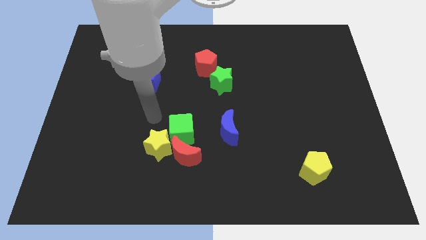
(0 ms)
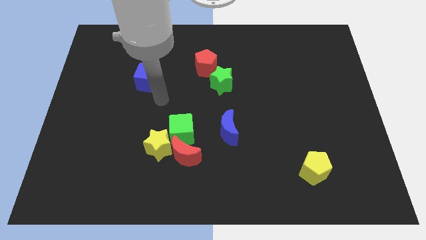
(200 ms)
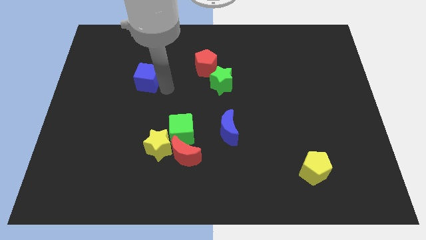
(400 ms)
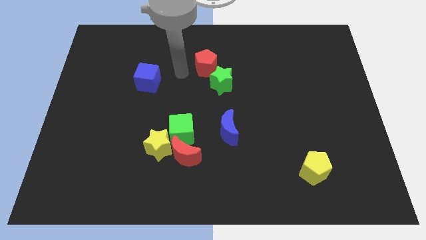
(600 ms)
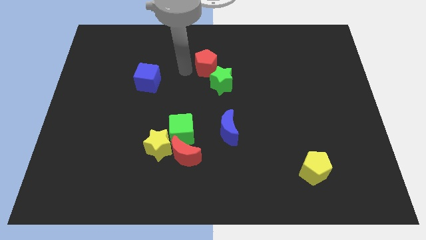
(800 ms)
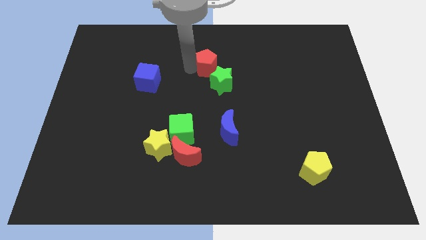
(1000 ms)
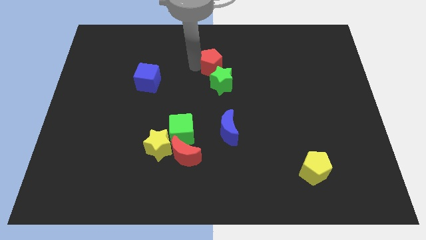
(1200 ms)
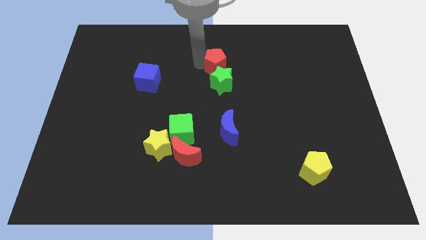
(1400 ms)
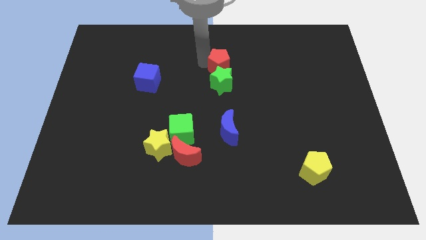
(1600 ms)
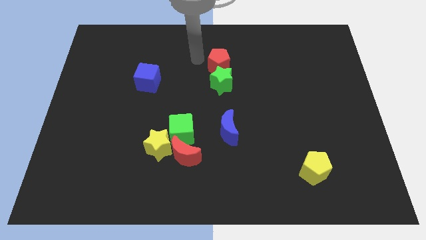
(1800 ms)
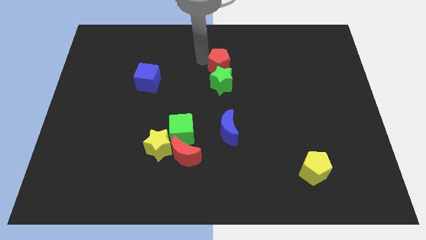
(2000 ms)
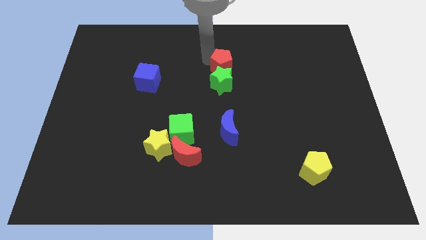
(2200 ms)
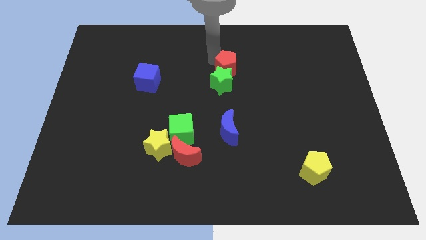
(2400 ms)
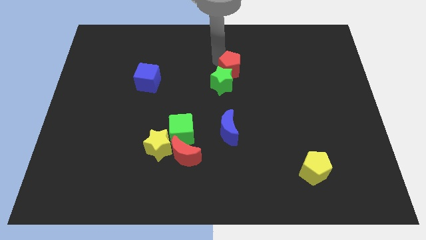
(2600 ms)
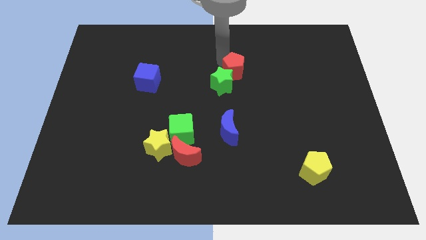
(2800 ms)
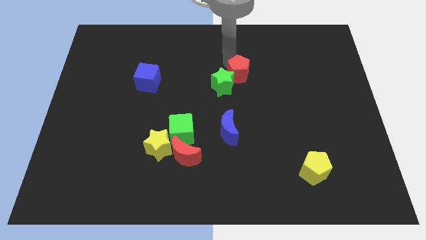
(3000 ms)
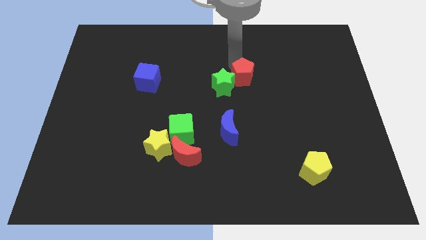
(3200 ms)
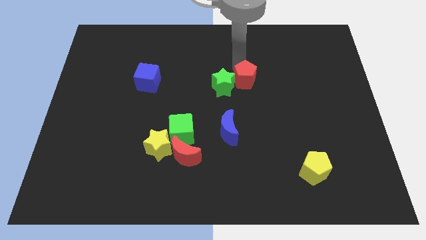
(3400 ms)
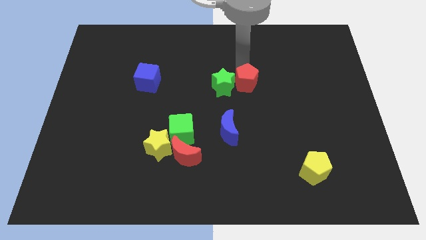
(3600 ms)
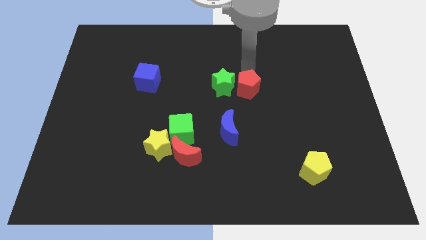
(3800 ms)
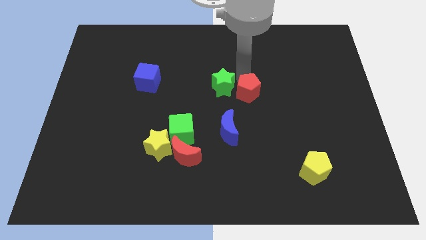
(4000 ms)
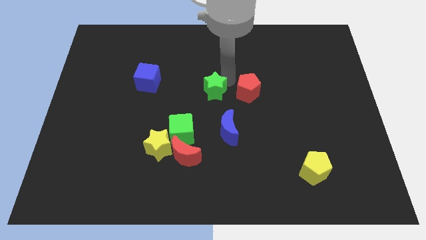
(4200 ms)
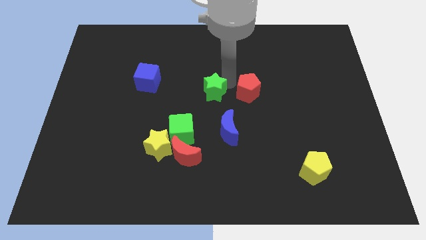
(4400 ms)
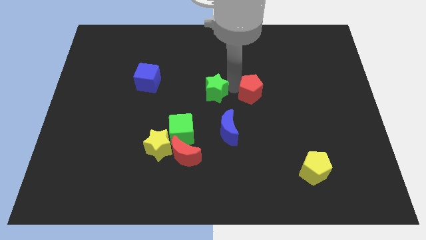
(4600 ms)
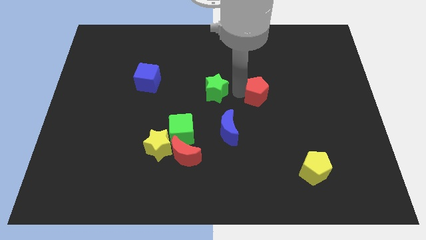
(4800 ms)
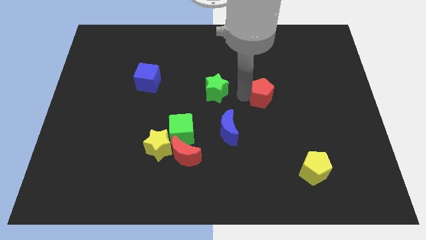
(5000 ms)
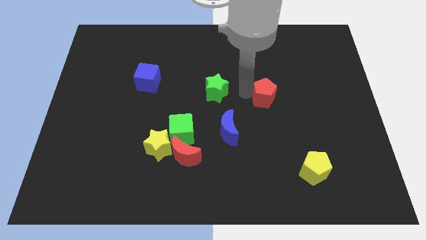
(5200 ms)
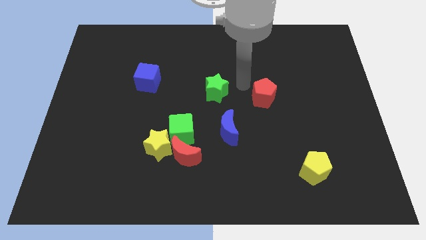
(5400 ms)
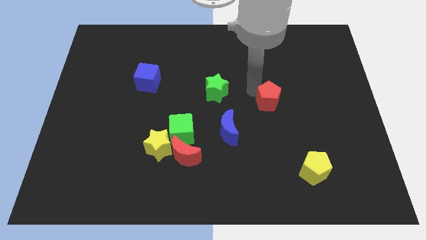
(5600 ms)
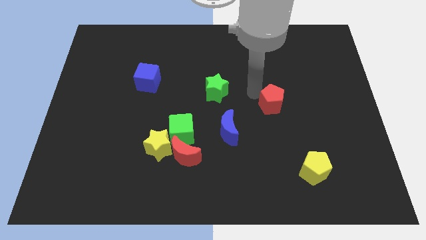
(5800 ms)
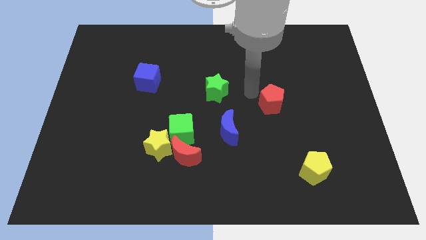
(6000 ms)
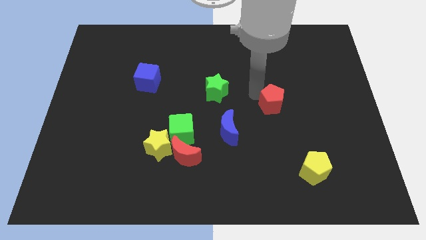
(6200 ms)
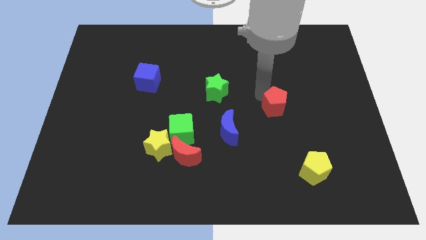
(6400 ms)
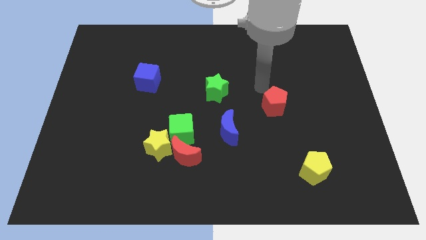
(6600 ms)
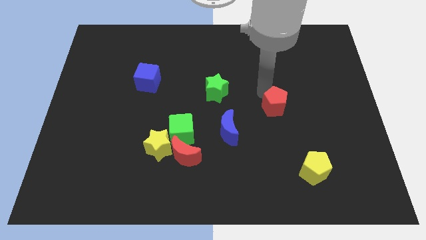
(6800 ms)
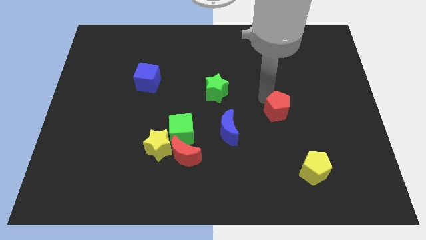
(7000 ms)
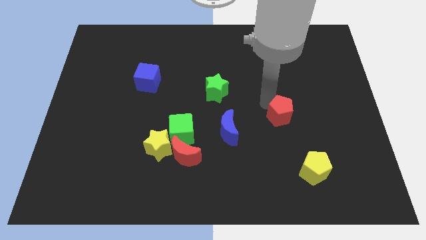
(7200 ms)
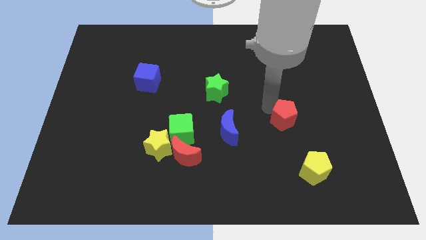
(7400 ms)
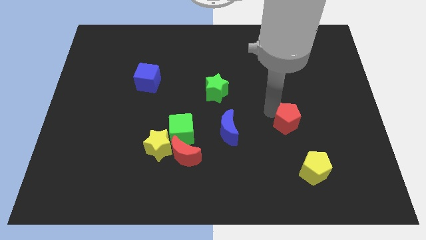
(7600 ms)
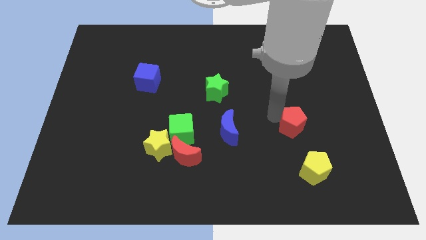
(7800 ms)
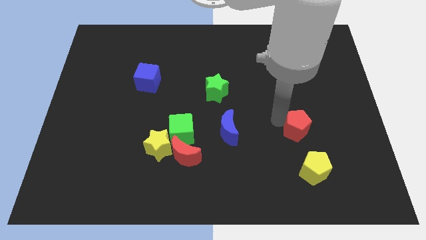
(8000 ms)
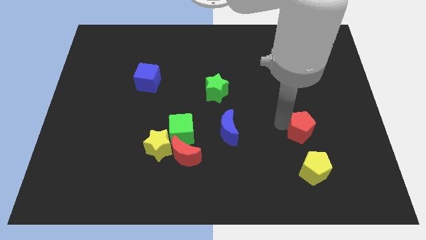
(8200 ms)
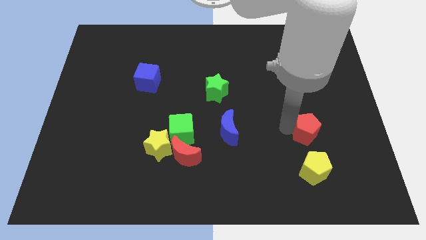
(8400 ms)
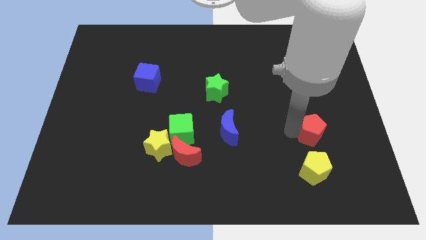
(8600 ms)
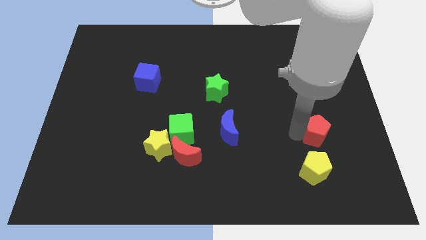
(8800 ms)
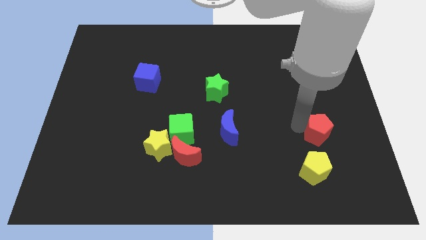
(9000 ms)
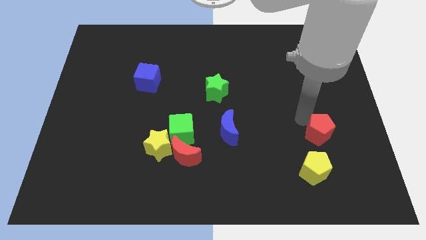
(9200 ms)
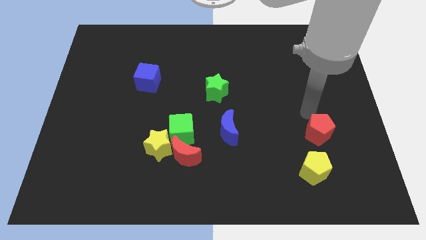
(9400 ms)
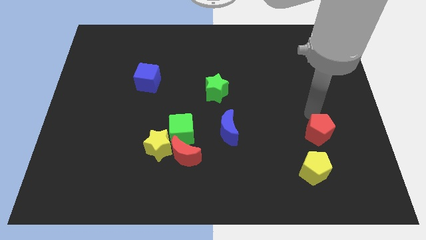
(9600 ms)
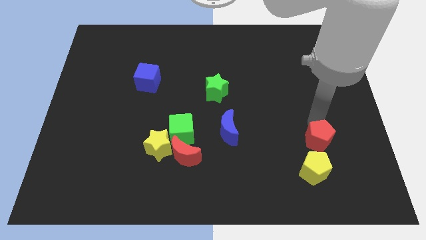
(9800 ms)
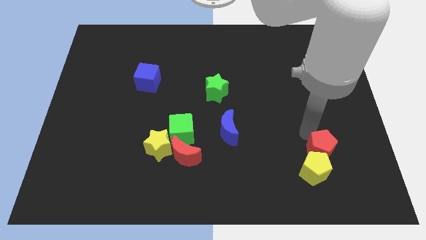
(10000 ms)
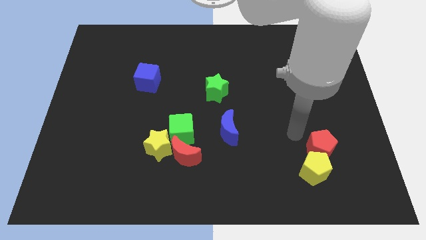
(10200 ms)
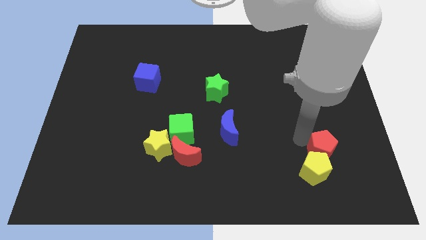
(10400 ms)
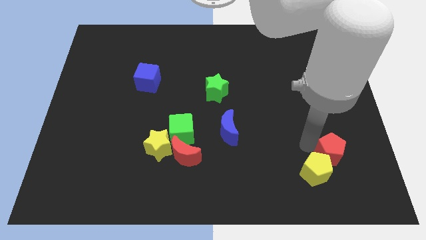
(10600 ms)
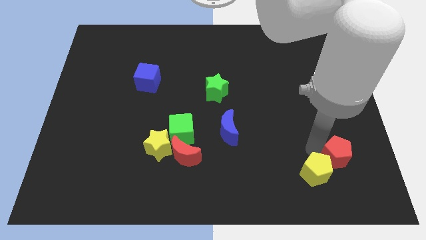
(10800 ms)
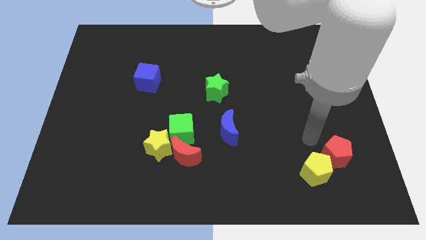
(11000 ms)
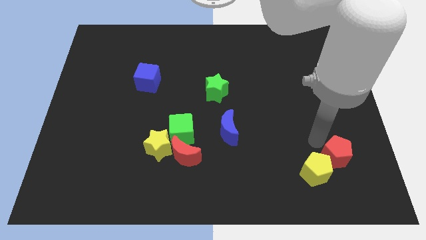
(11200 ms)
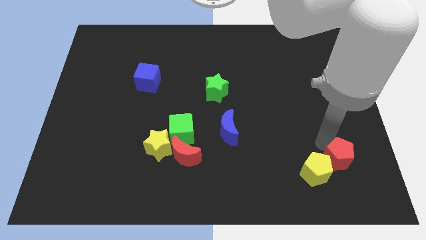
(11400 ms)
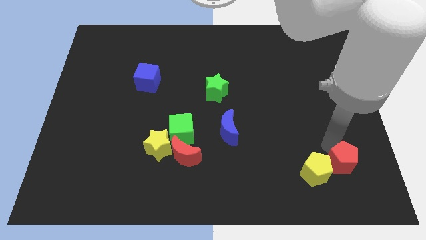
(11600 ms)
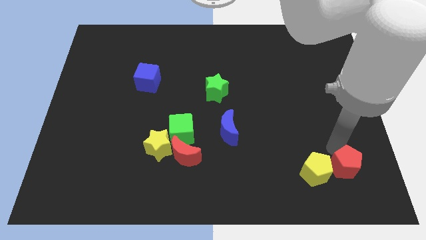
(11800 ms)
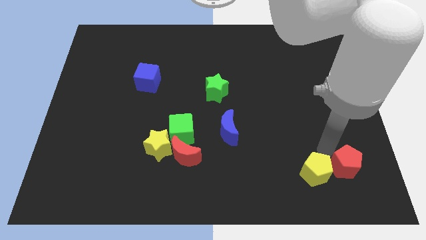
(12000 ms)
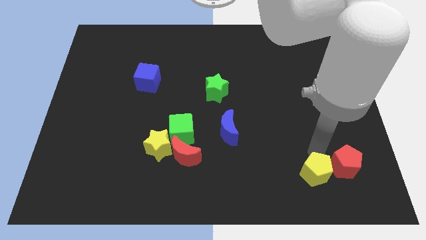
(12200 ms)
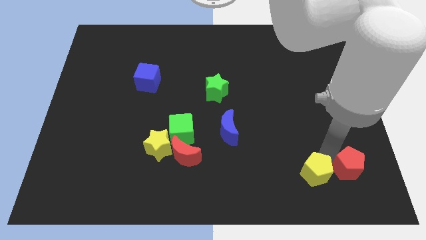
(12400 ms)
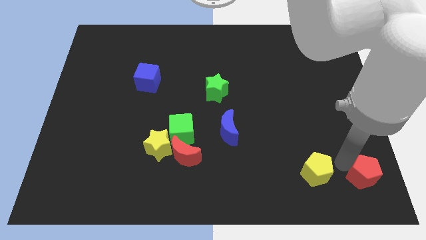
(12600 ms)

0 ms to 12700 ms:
push the red pentagon to the bottom right corner
